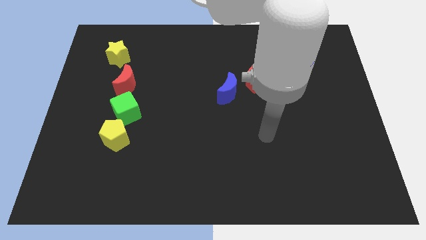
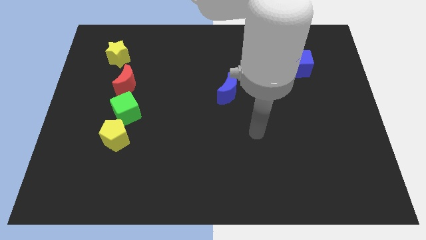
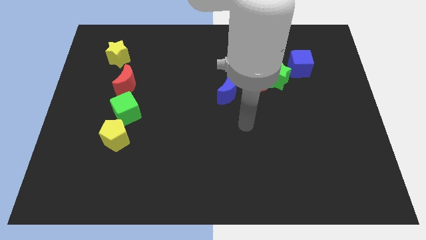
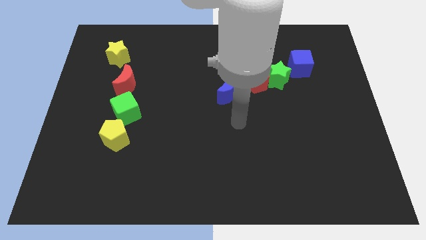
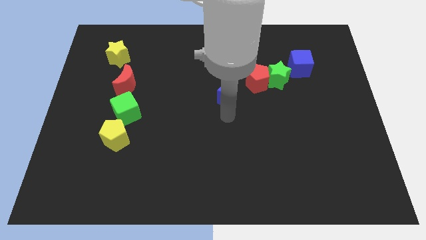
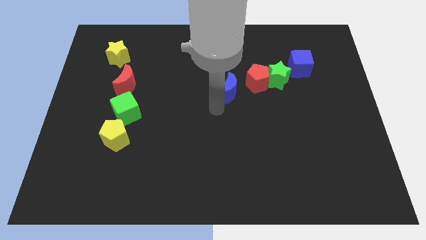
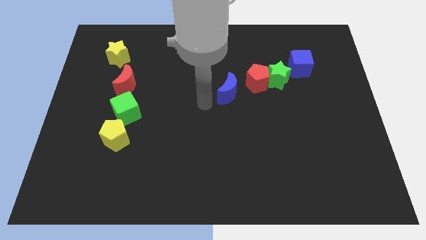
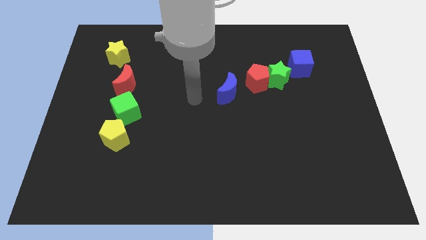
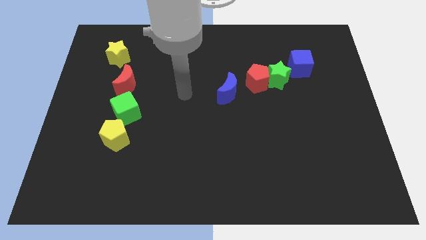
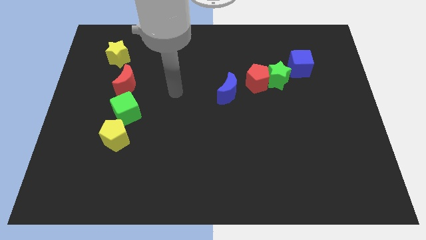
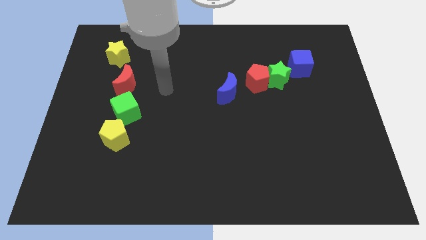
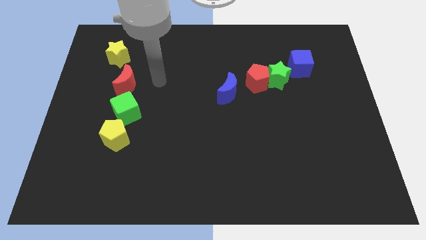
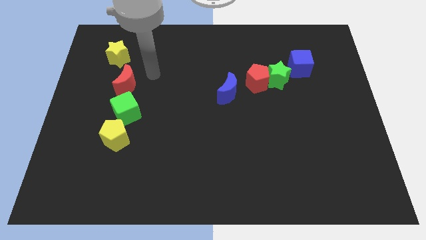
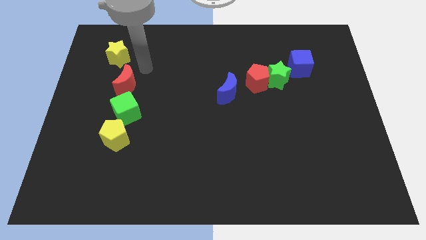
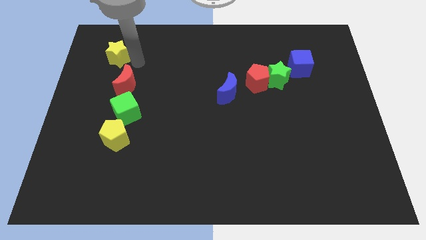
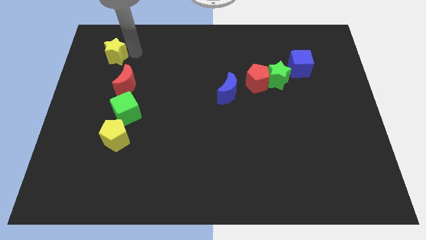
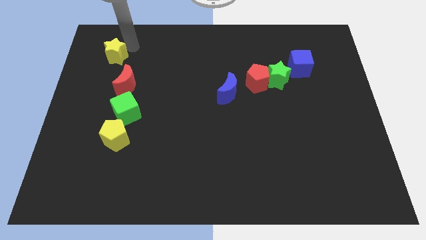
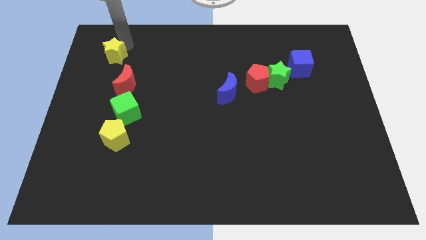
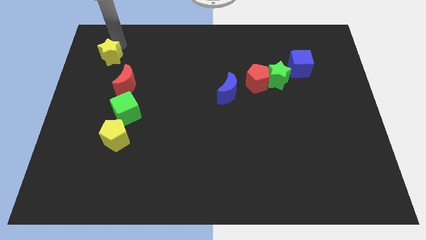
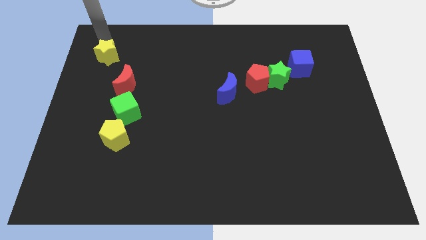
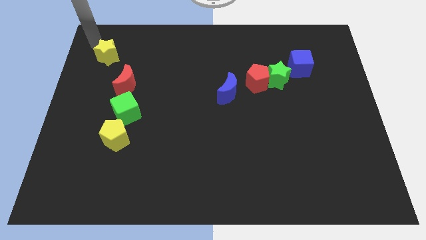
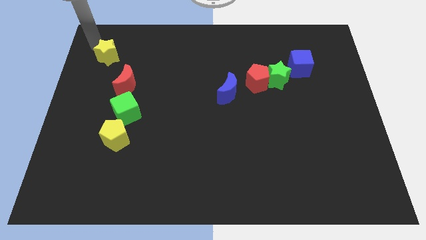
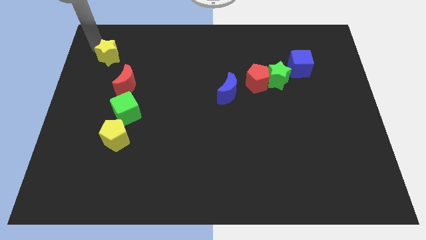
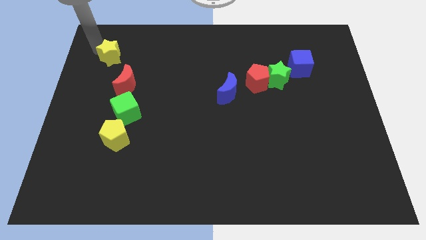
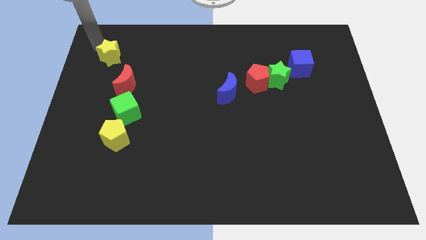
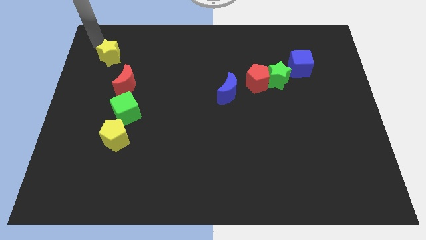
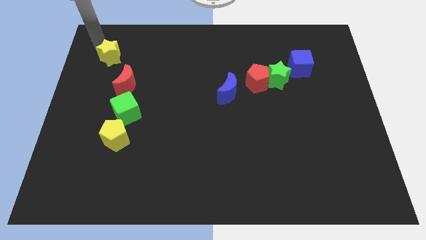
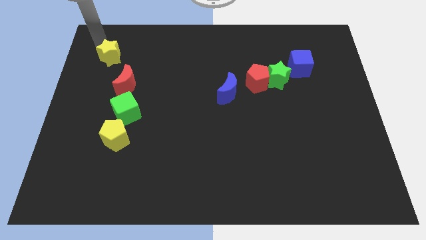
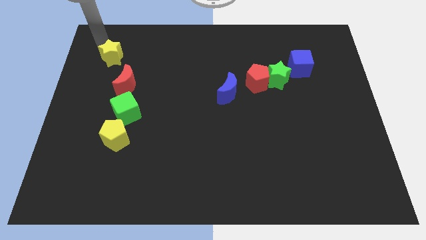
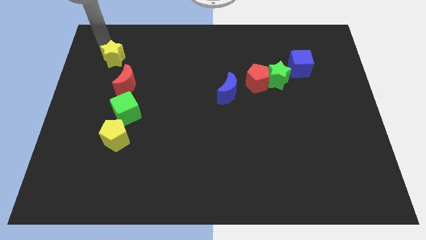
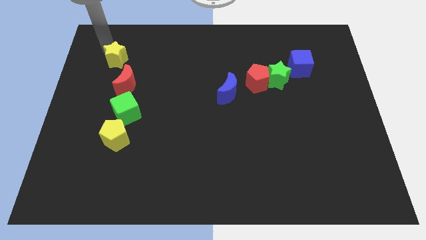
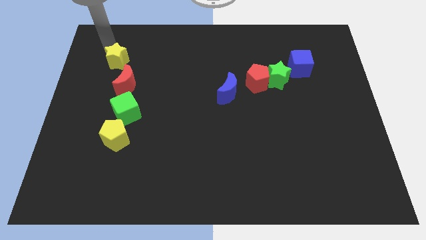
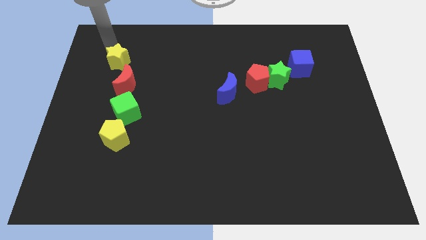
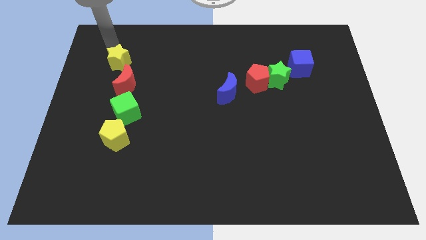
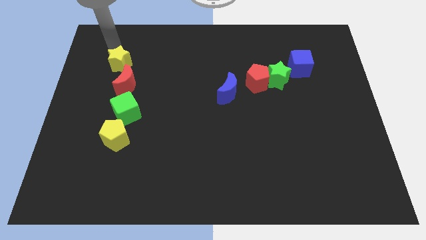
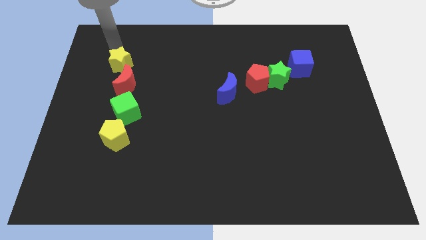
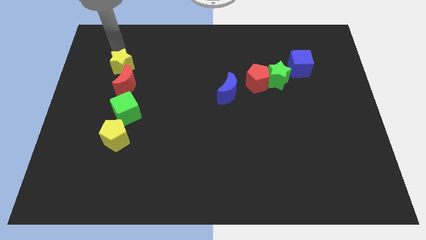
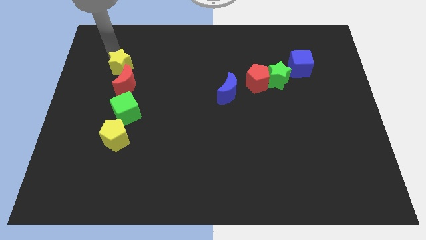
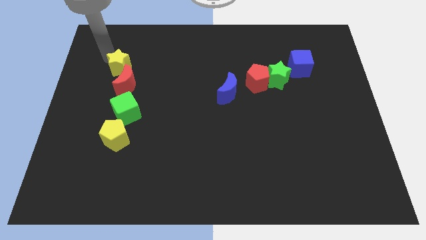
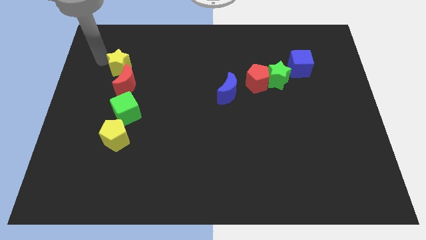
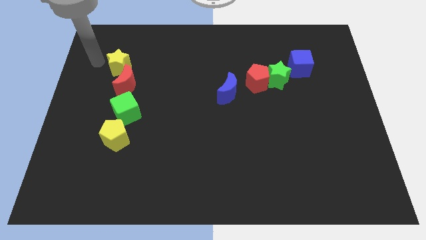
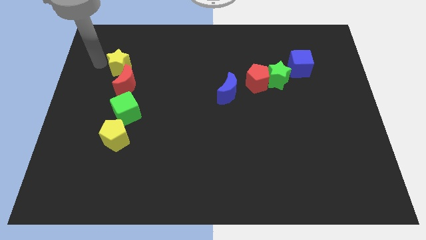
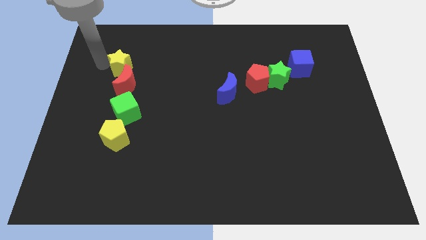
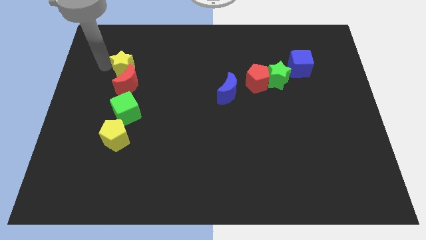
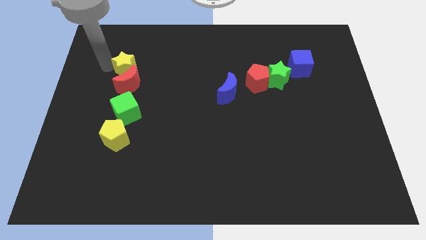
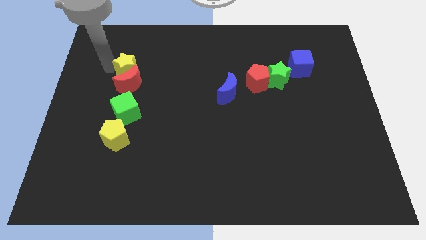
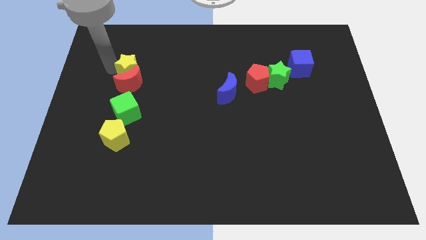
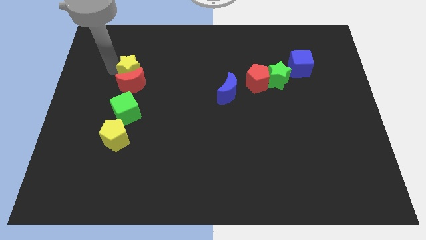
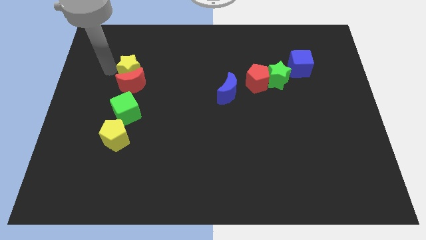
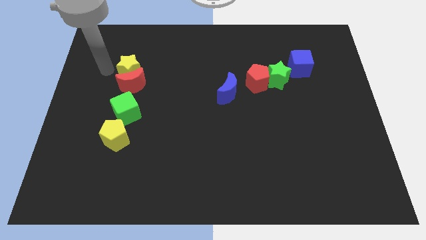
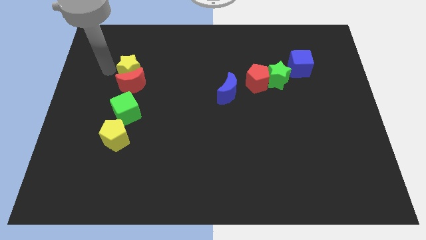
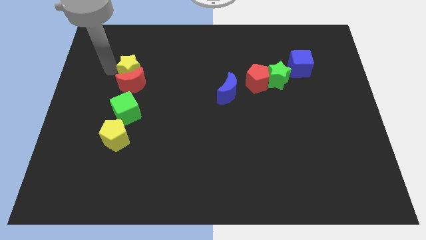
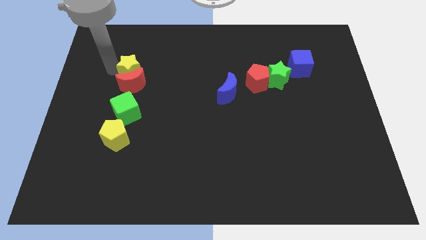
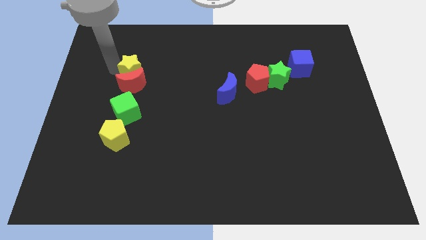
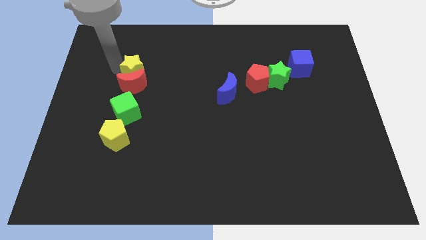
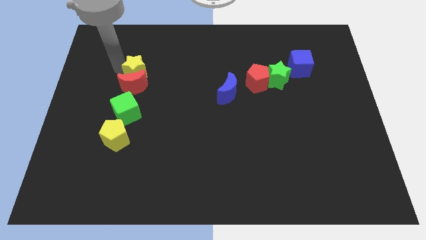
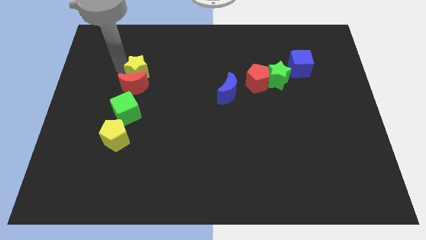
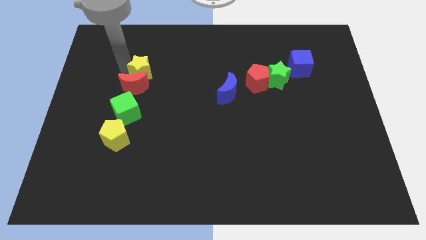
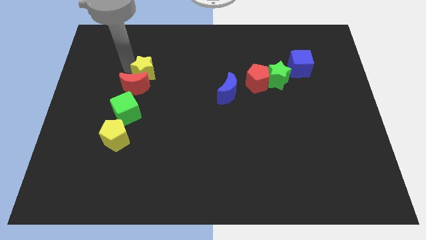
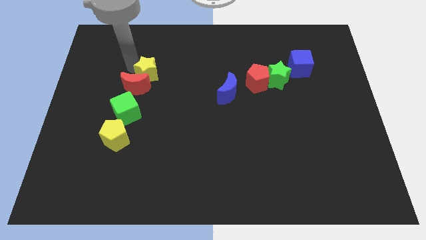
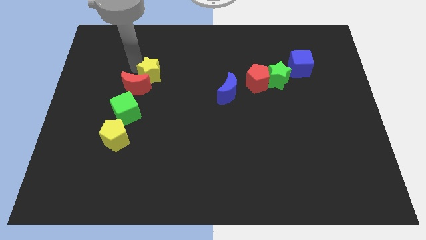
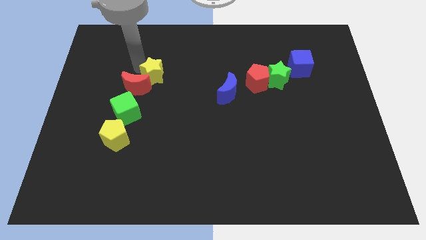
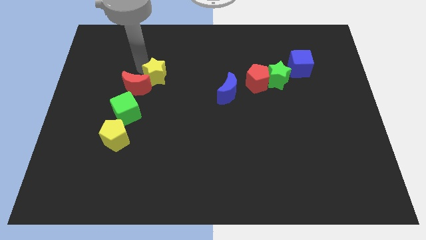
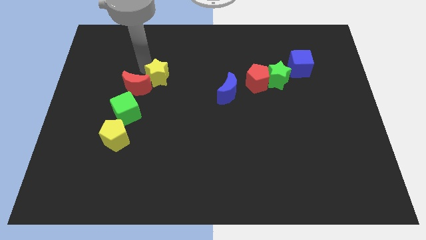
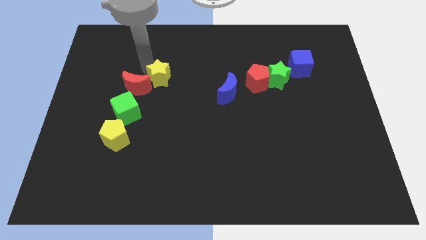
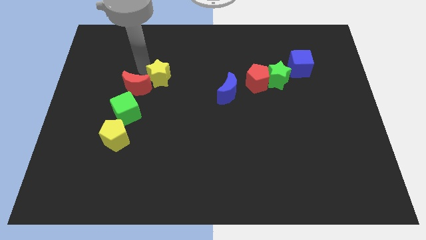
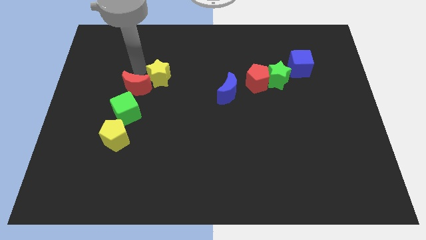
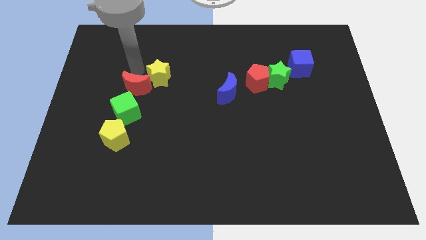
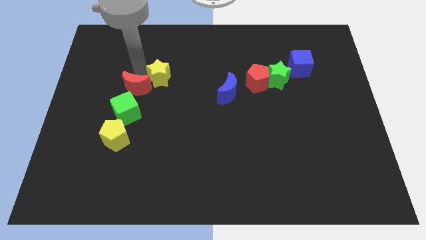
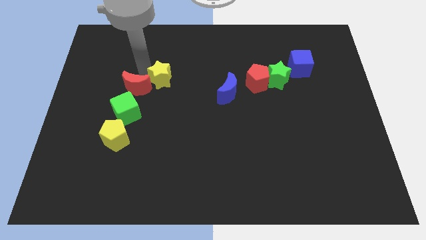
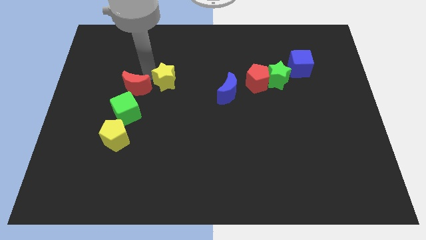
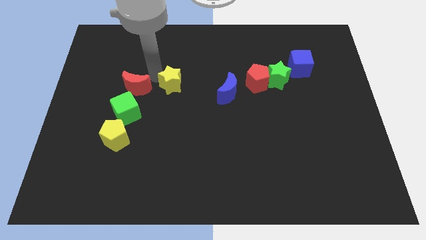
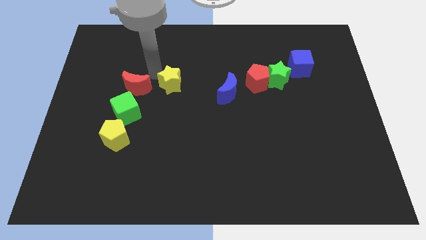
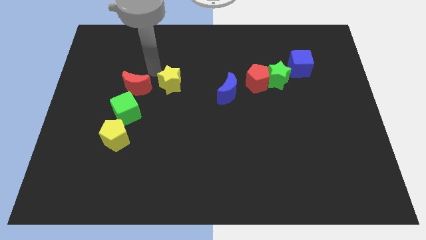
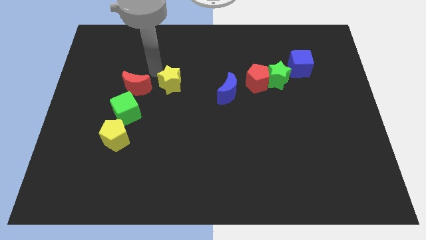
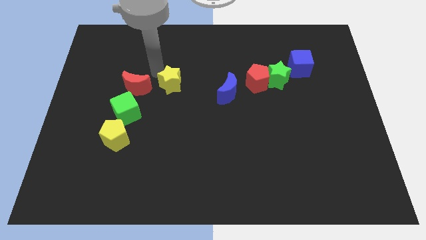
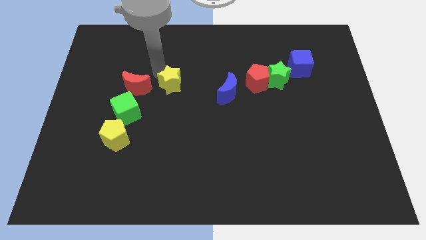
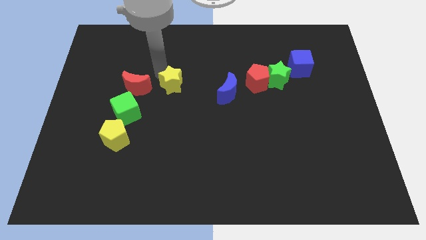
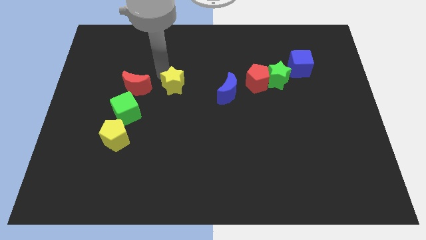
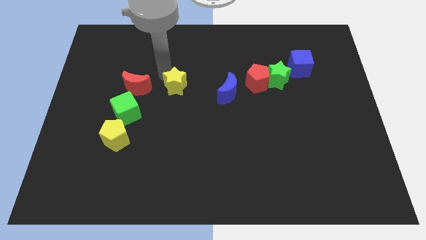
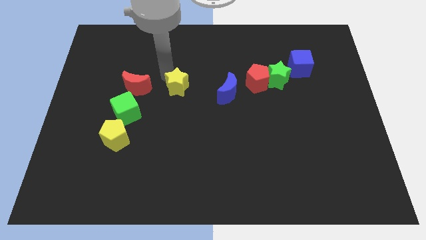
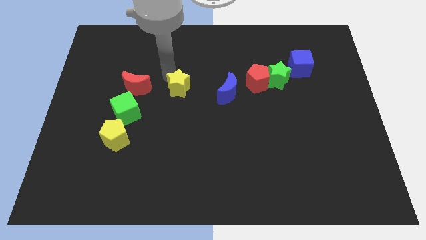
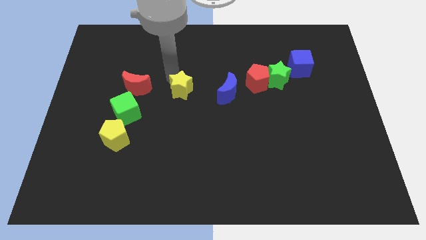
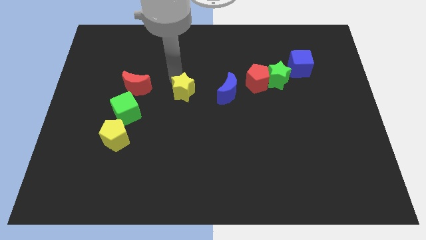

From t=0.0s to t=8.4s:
move the yellow star downwards and to the right
